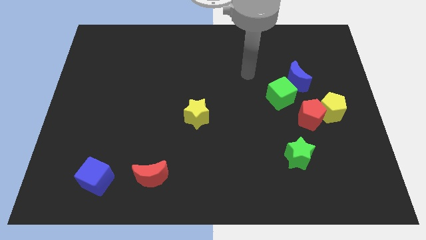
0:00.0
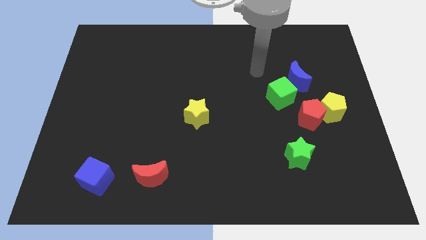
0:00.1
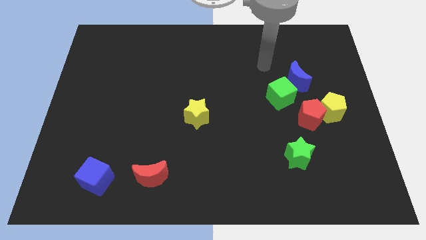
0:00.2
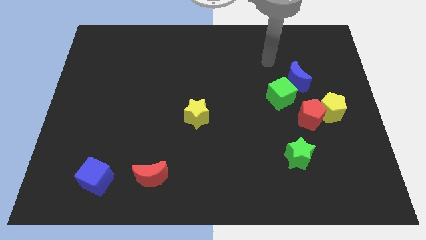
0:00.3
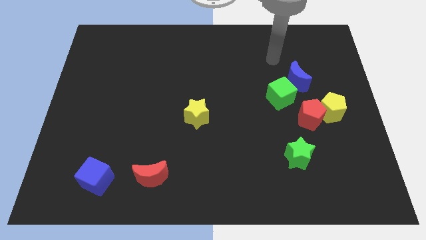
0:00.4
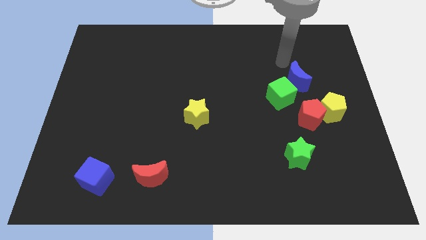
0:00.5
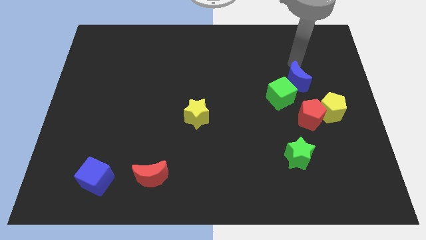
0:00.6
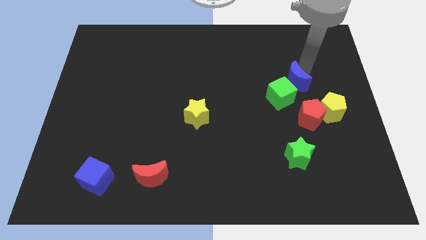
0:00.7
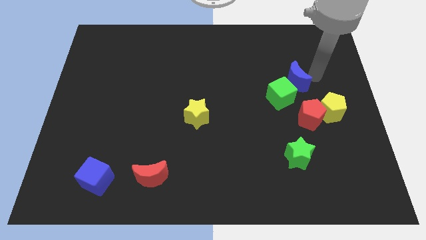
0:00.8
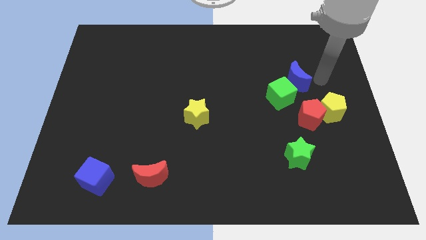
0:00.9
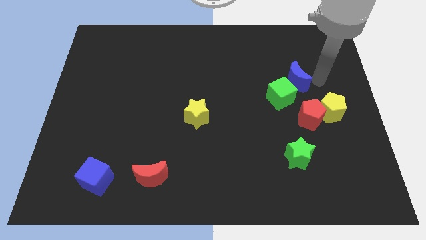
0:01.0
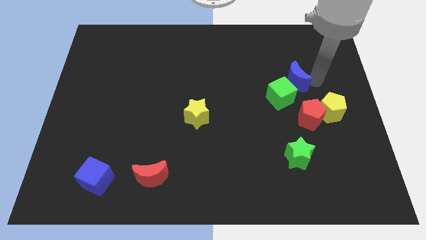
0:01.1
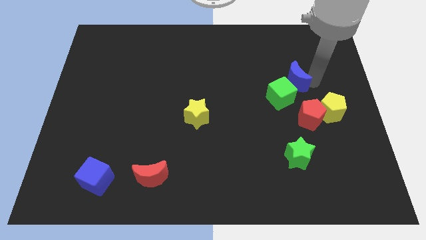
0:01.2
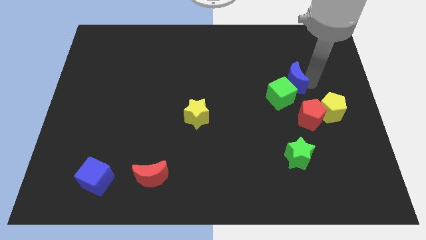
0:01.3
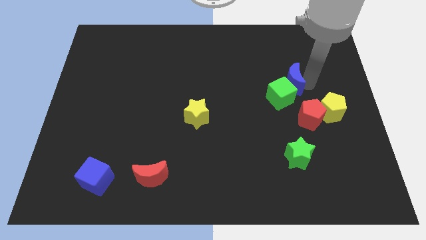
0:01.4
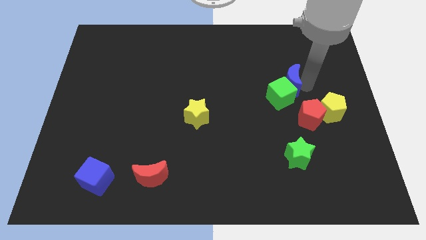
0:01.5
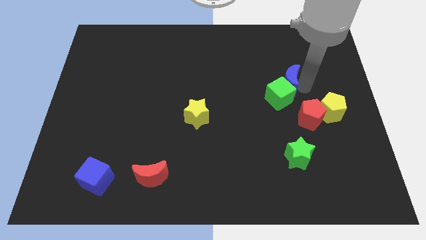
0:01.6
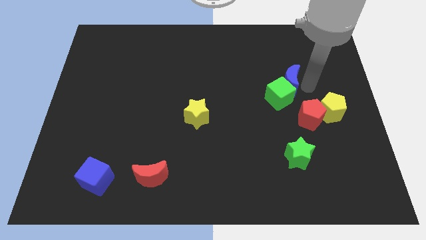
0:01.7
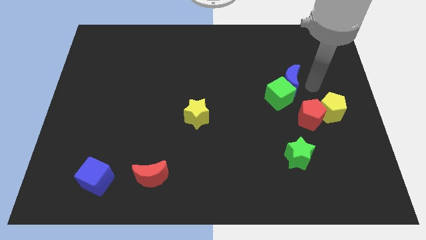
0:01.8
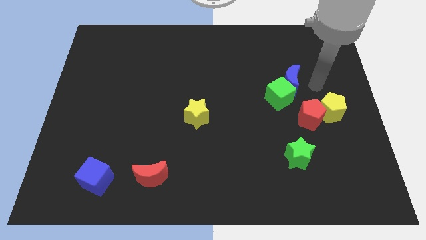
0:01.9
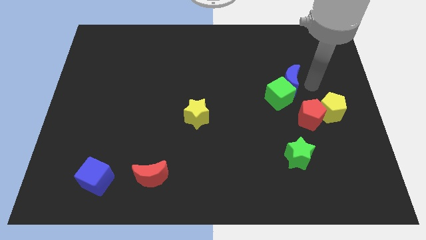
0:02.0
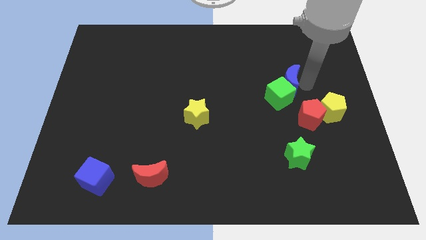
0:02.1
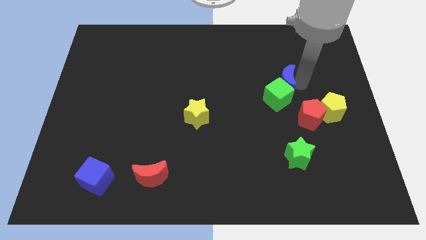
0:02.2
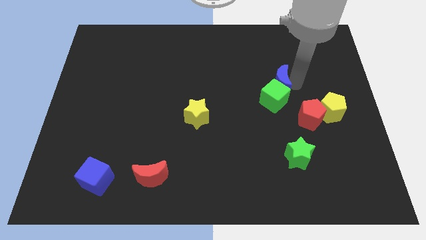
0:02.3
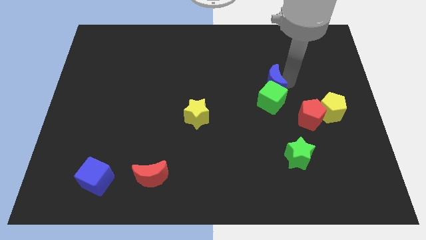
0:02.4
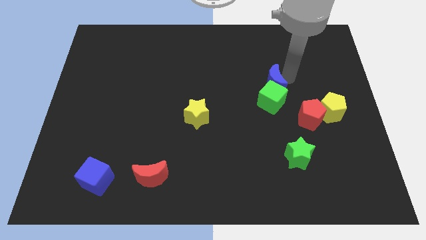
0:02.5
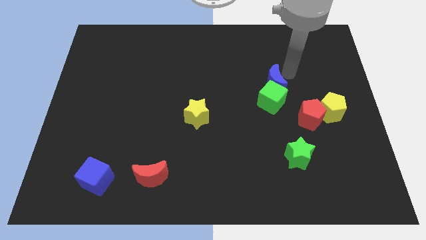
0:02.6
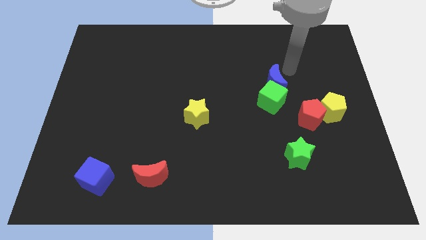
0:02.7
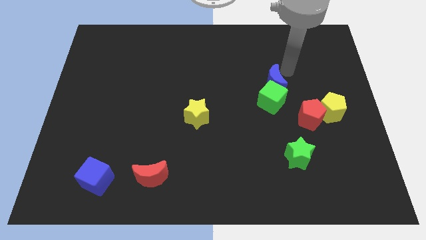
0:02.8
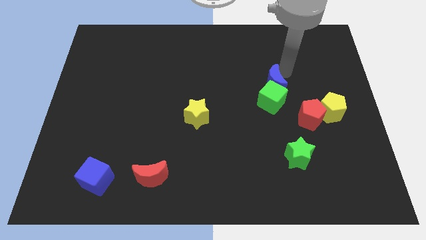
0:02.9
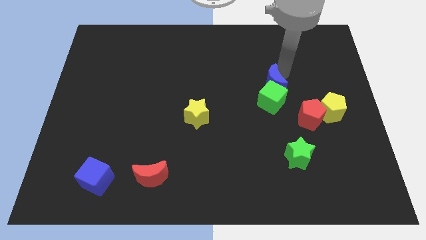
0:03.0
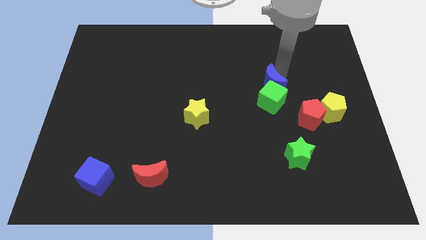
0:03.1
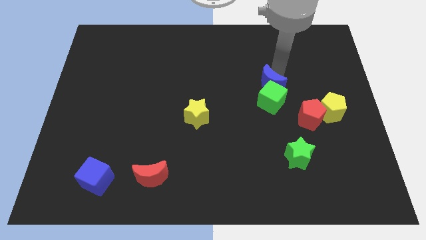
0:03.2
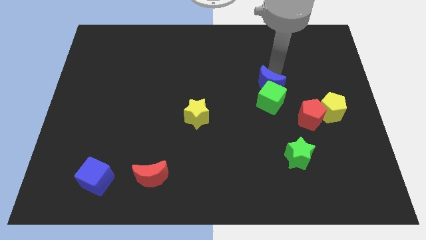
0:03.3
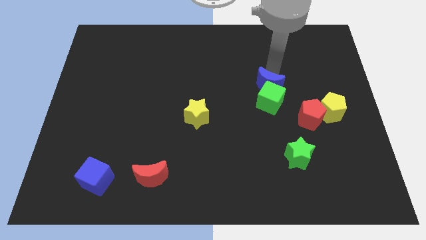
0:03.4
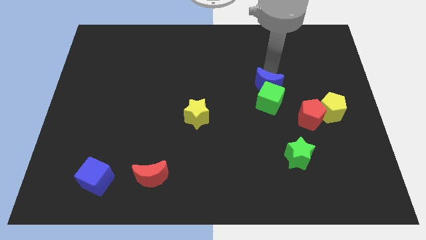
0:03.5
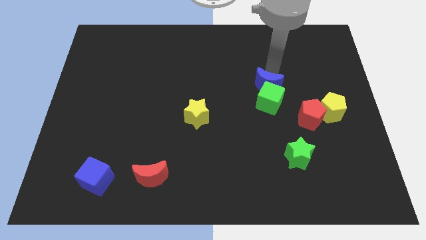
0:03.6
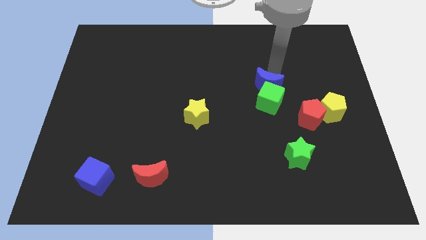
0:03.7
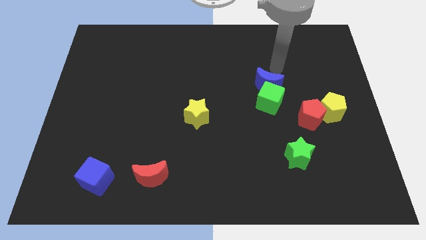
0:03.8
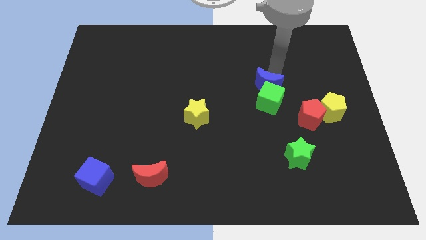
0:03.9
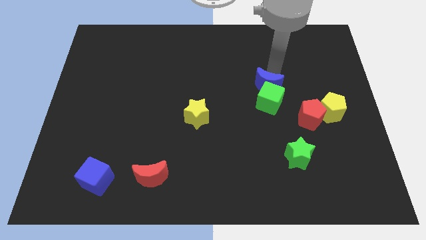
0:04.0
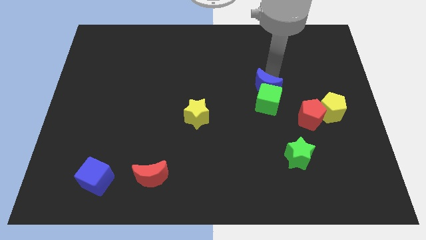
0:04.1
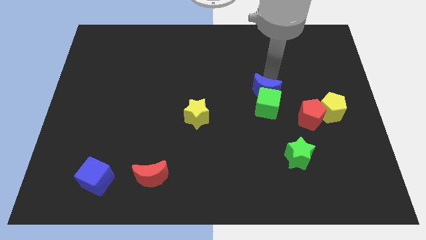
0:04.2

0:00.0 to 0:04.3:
move the blue moon slightly diagonally downwards and left

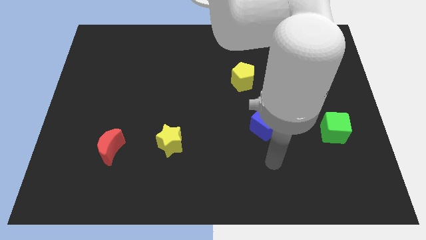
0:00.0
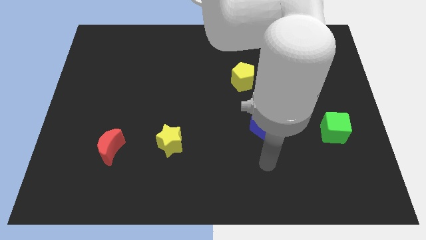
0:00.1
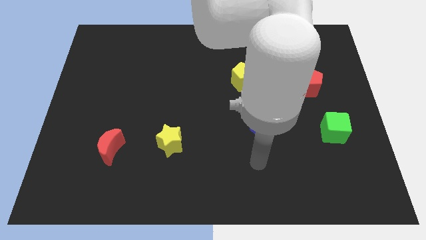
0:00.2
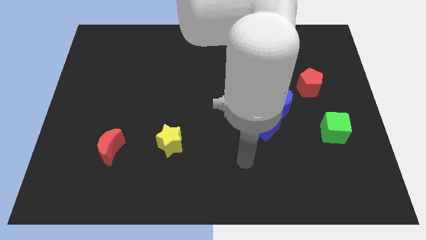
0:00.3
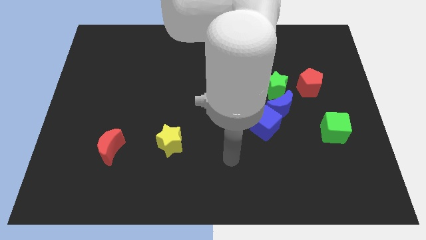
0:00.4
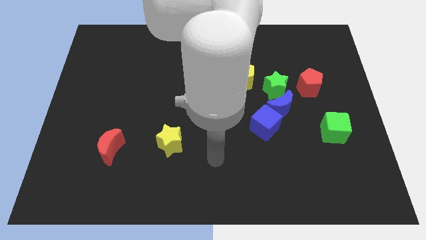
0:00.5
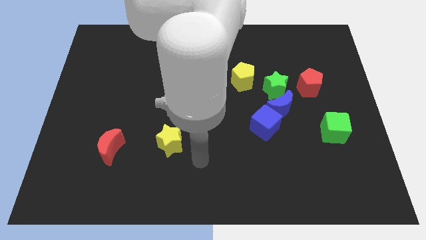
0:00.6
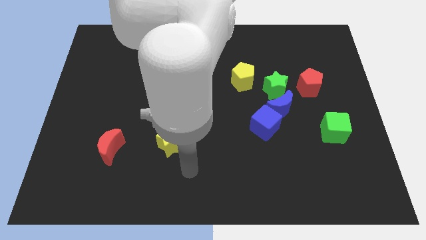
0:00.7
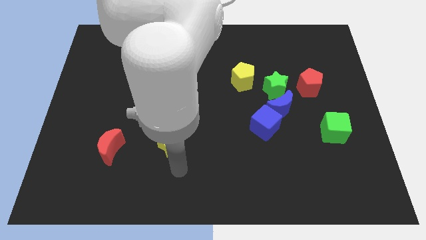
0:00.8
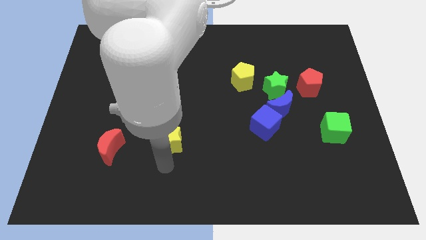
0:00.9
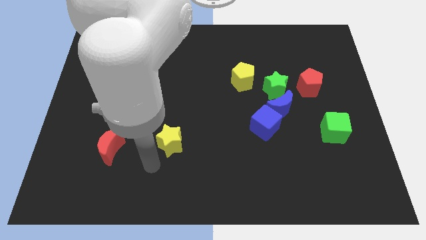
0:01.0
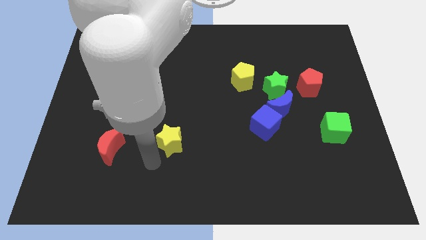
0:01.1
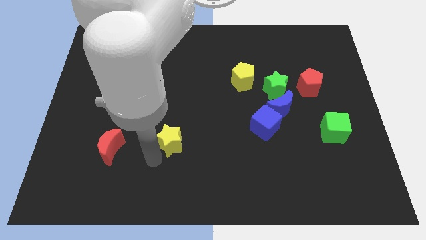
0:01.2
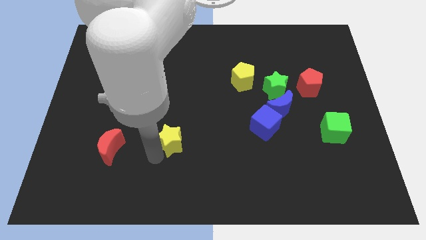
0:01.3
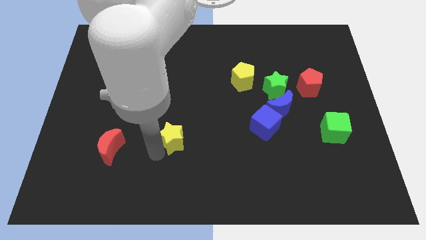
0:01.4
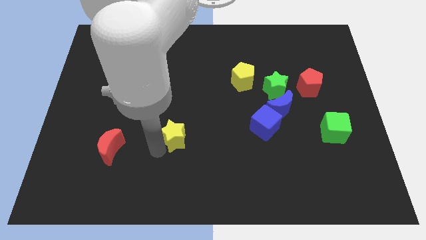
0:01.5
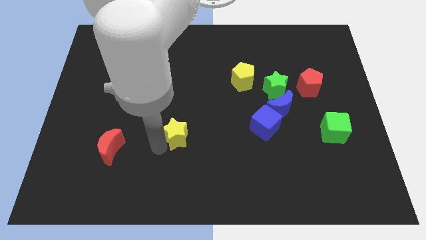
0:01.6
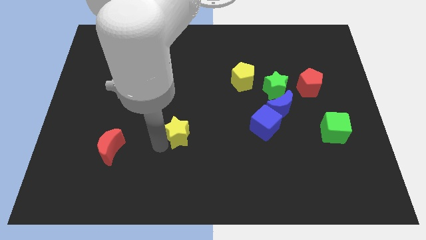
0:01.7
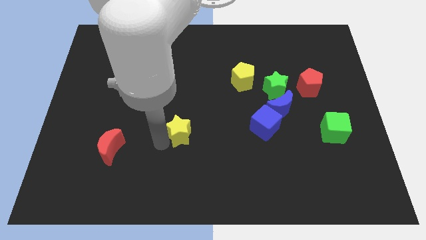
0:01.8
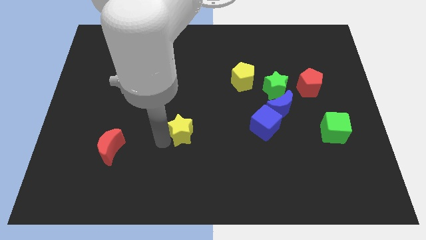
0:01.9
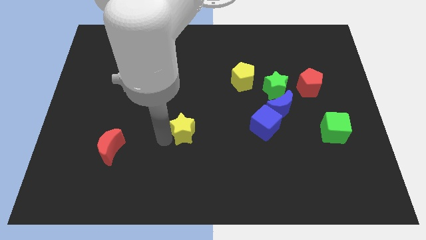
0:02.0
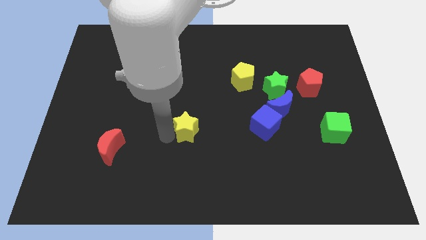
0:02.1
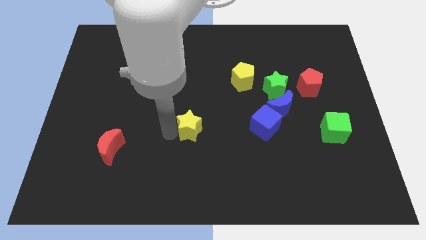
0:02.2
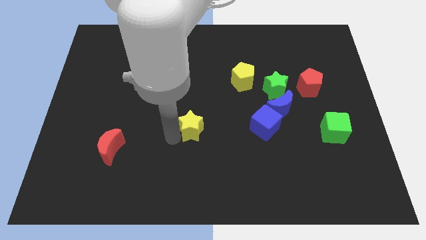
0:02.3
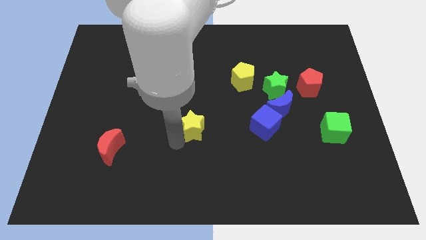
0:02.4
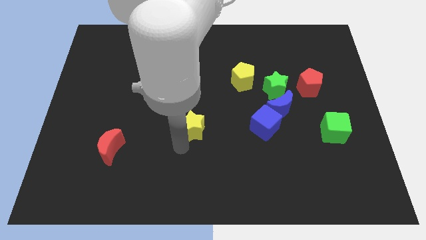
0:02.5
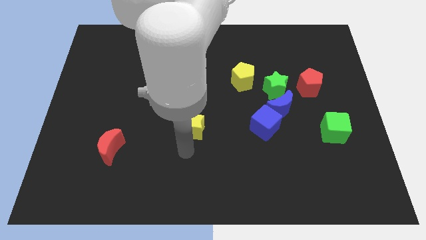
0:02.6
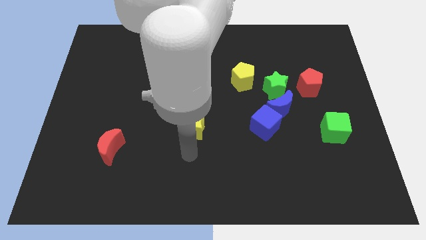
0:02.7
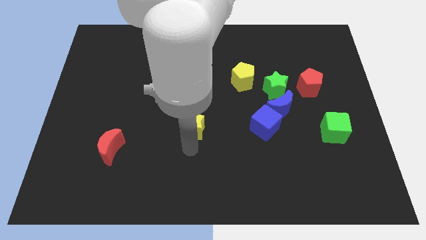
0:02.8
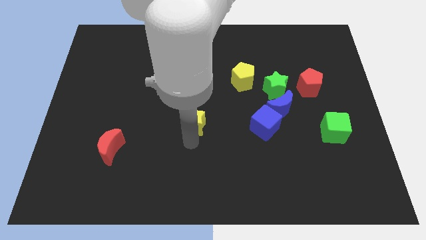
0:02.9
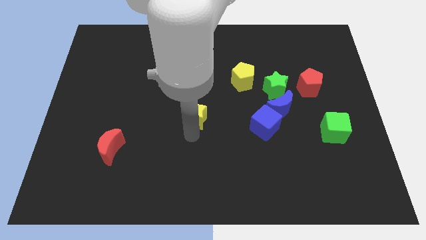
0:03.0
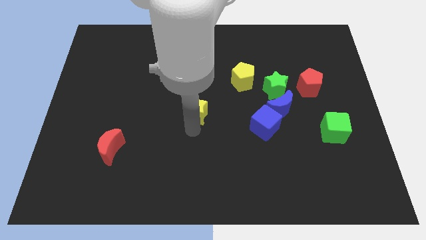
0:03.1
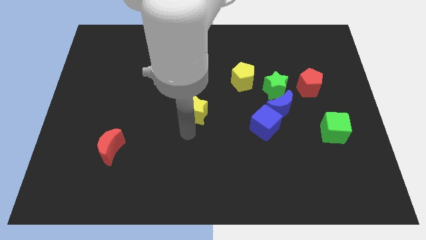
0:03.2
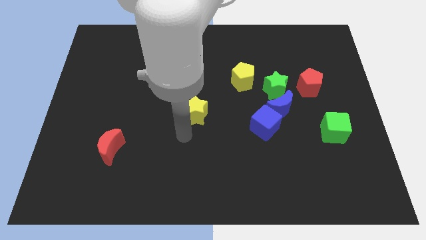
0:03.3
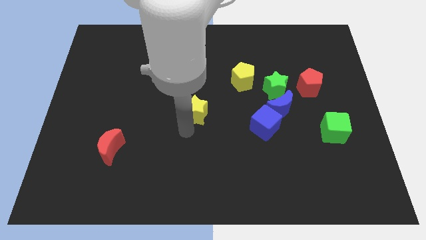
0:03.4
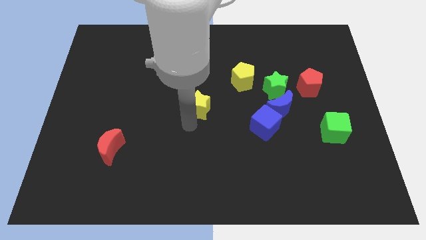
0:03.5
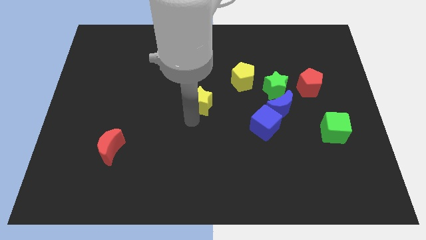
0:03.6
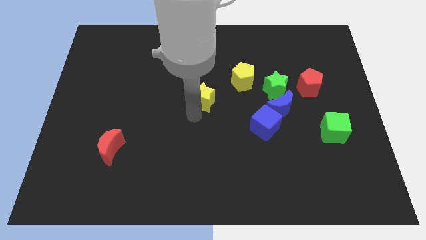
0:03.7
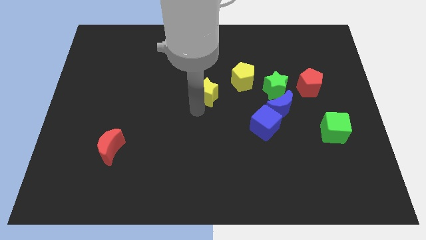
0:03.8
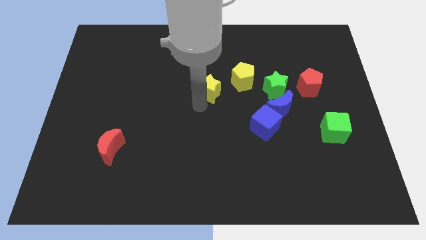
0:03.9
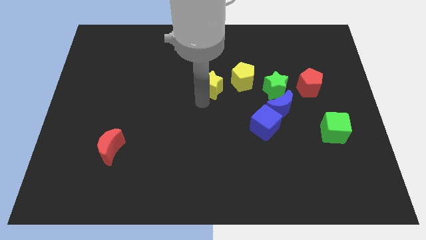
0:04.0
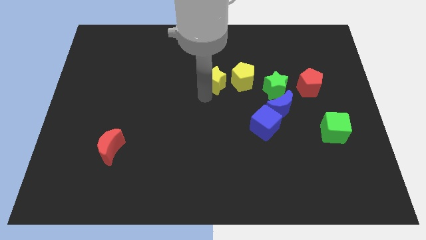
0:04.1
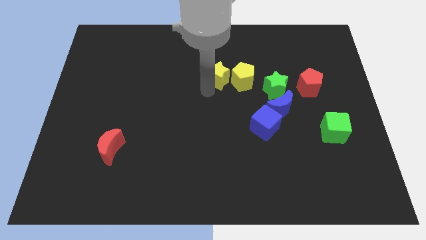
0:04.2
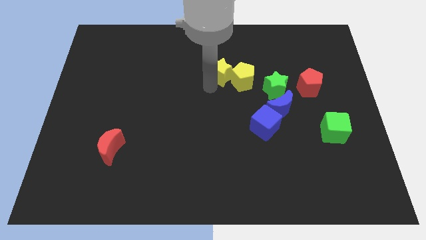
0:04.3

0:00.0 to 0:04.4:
move the yellow star up and then right
